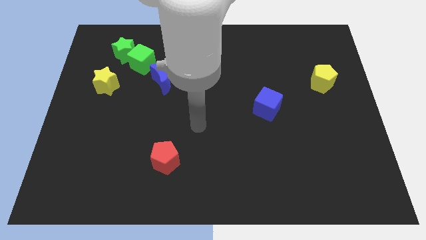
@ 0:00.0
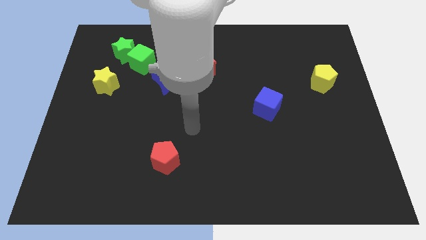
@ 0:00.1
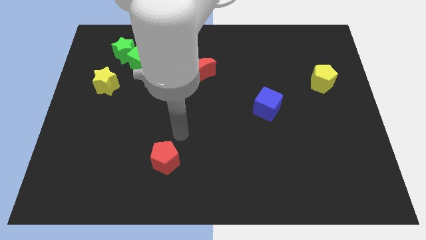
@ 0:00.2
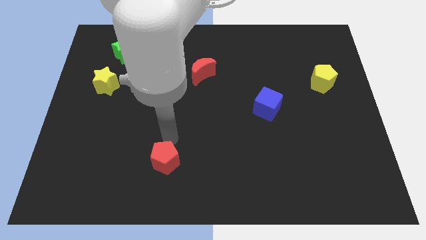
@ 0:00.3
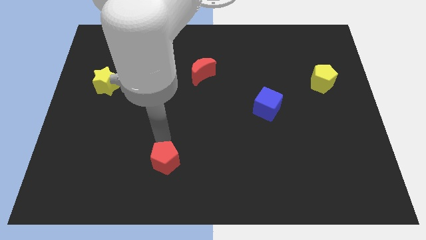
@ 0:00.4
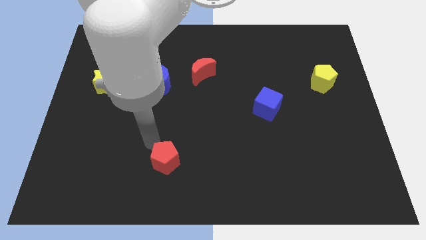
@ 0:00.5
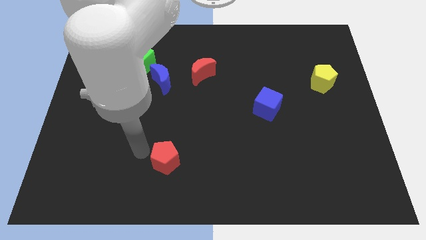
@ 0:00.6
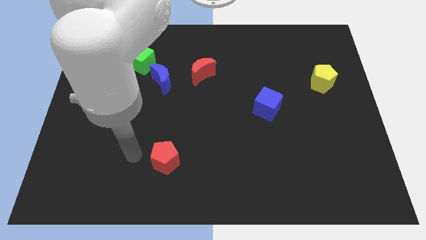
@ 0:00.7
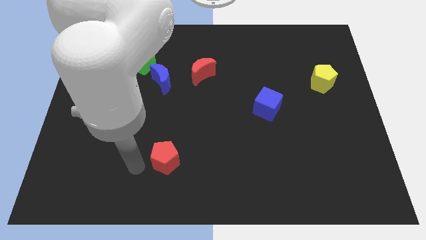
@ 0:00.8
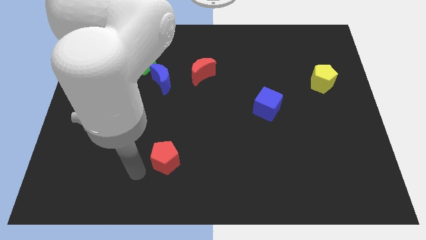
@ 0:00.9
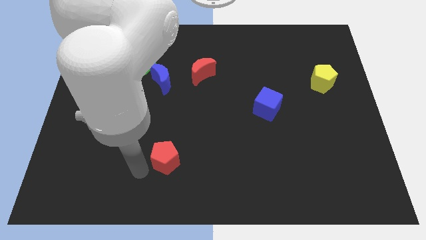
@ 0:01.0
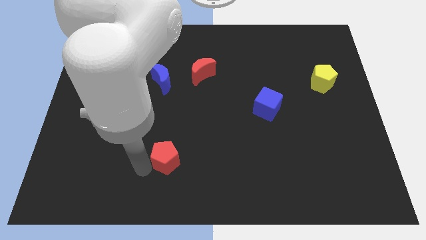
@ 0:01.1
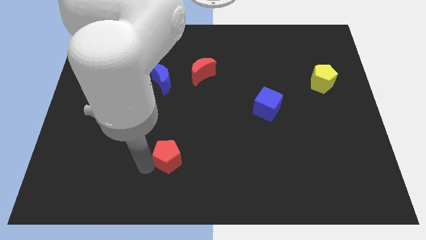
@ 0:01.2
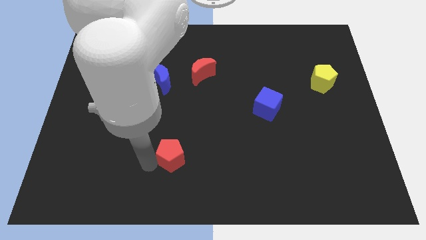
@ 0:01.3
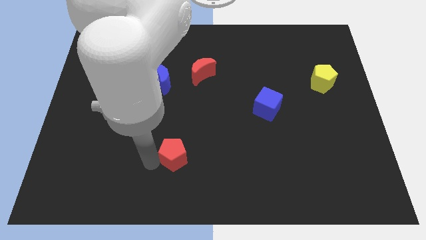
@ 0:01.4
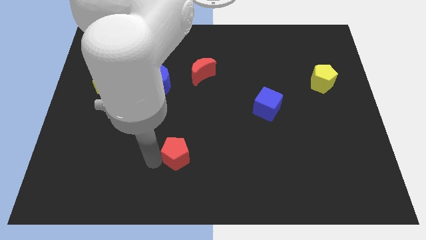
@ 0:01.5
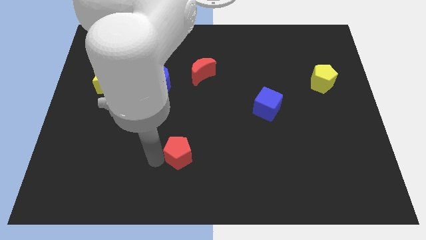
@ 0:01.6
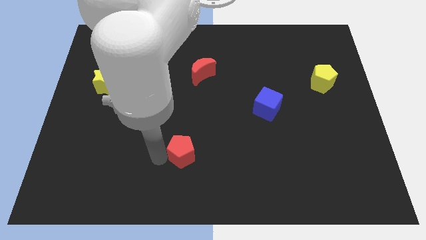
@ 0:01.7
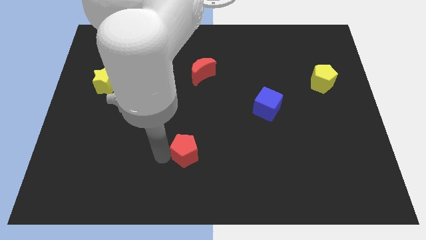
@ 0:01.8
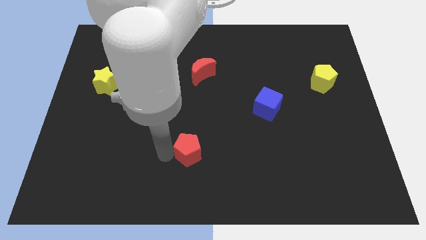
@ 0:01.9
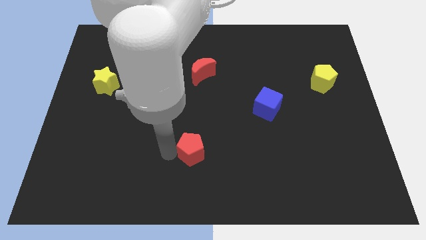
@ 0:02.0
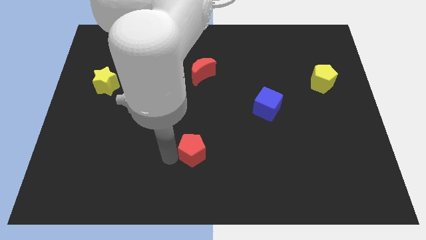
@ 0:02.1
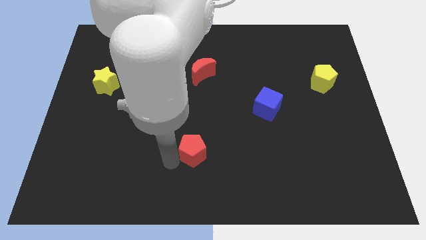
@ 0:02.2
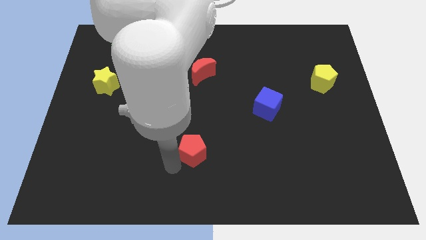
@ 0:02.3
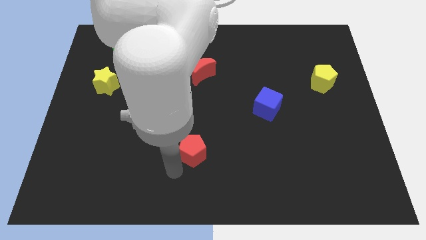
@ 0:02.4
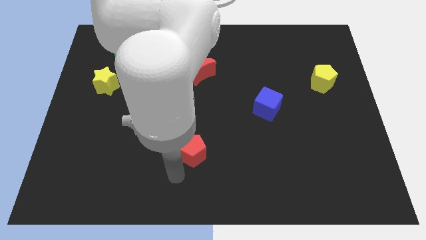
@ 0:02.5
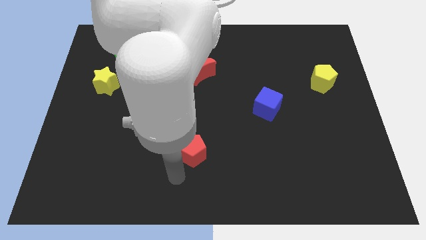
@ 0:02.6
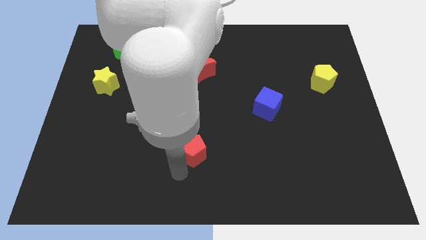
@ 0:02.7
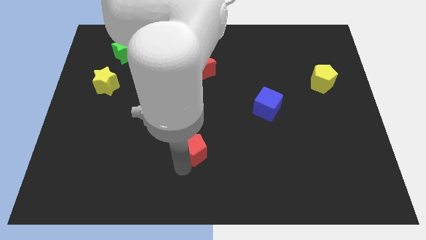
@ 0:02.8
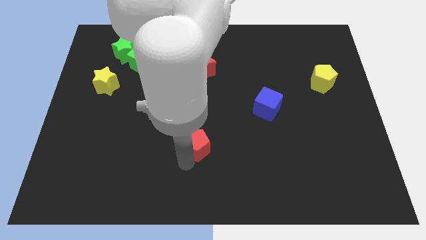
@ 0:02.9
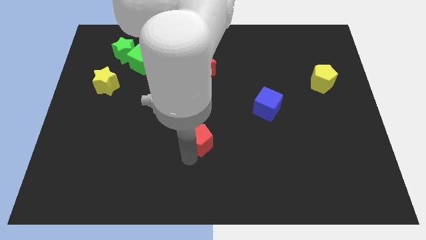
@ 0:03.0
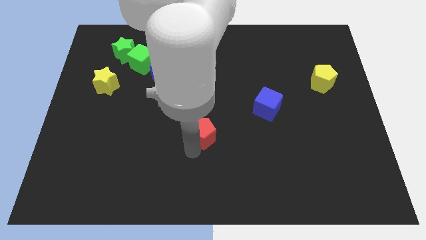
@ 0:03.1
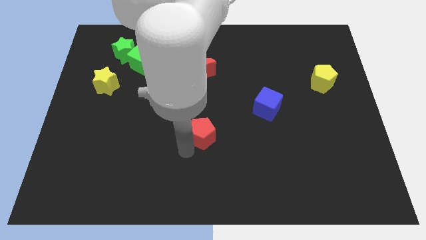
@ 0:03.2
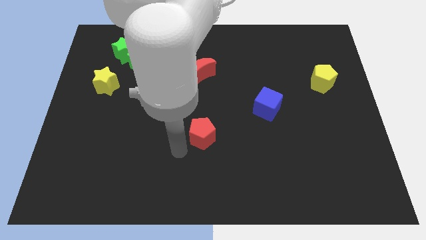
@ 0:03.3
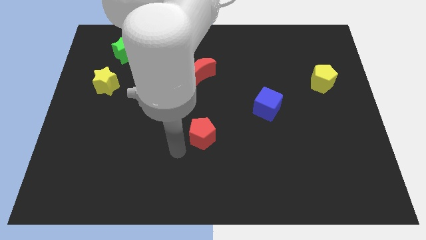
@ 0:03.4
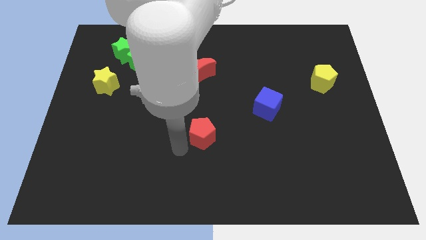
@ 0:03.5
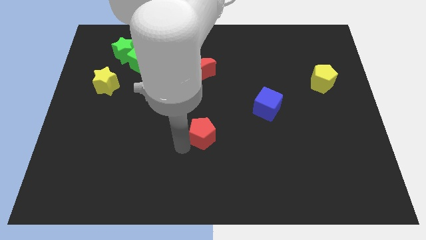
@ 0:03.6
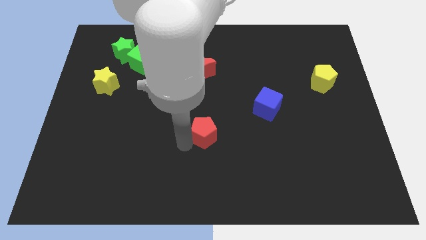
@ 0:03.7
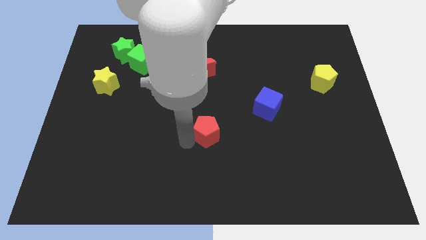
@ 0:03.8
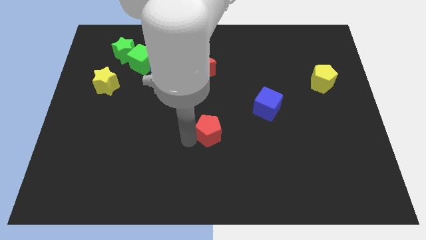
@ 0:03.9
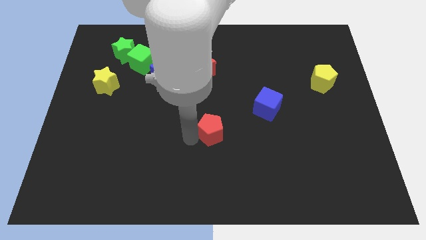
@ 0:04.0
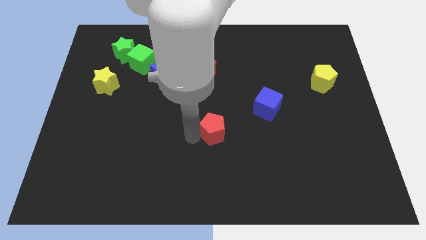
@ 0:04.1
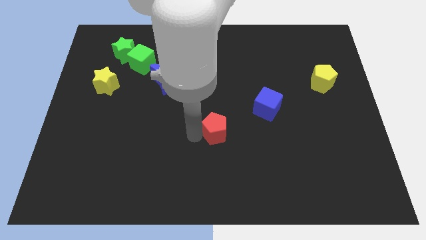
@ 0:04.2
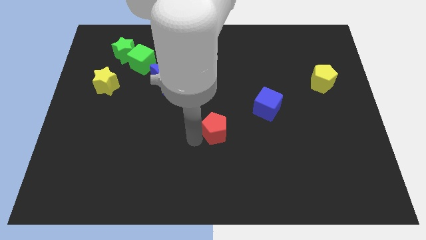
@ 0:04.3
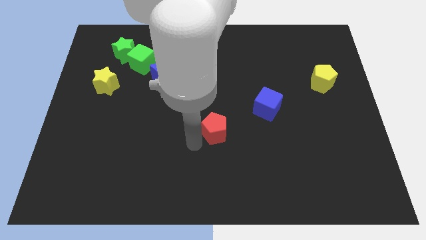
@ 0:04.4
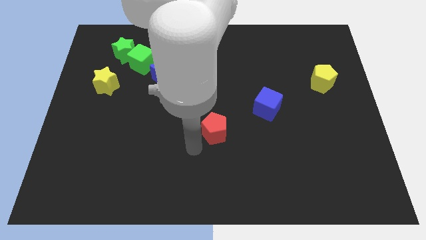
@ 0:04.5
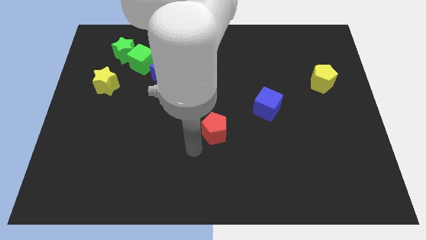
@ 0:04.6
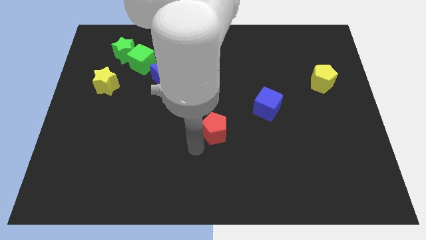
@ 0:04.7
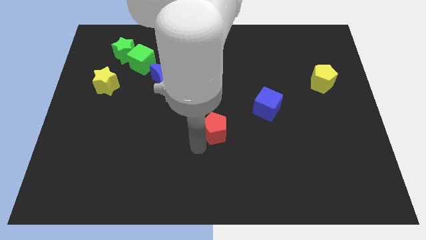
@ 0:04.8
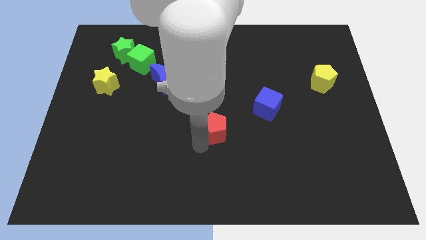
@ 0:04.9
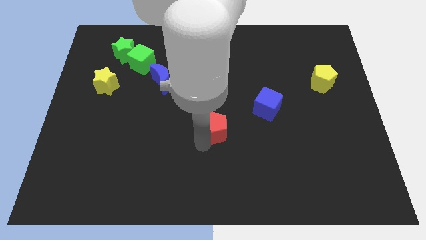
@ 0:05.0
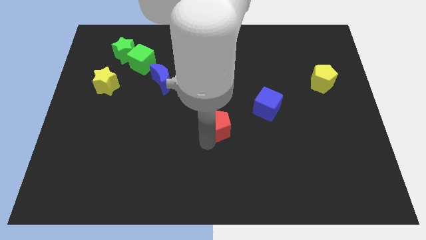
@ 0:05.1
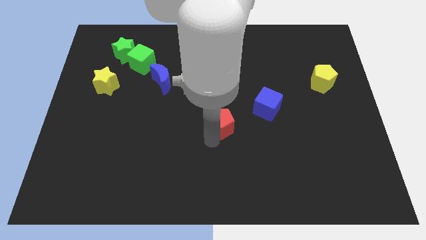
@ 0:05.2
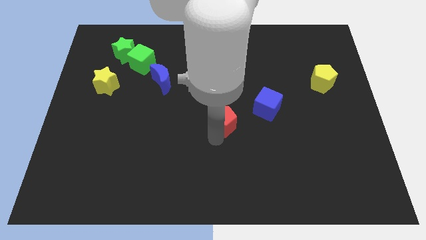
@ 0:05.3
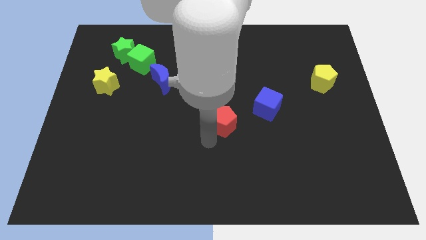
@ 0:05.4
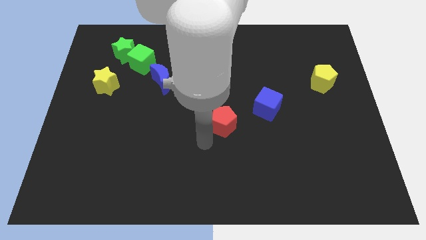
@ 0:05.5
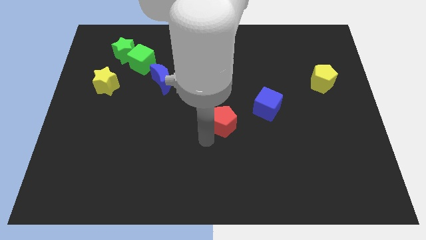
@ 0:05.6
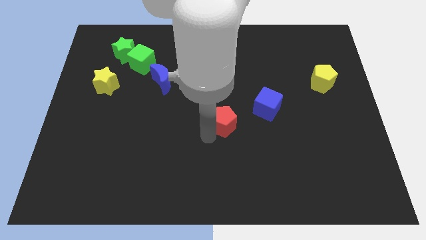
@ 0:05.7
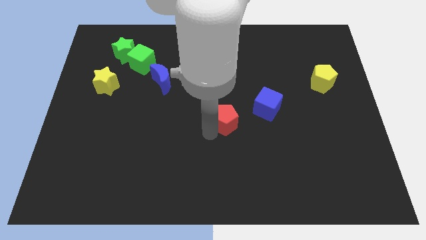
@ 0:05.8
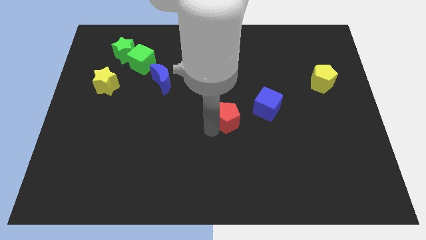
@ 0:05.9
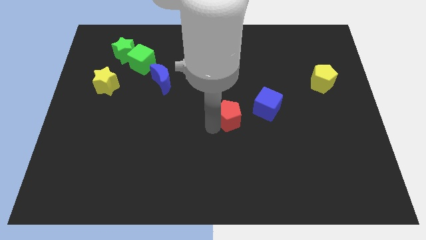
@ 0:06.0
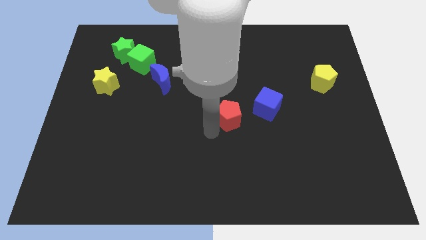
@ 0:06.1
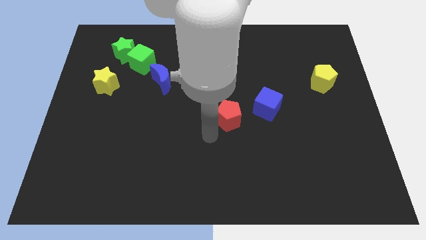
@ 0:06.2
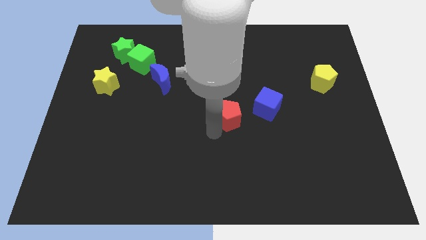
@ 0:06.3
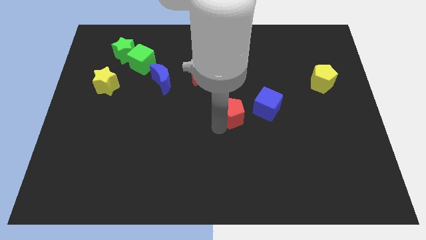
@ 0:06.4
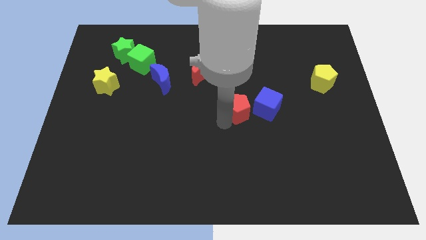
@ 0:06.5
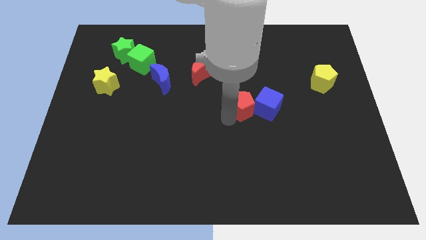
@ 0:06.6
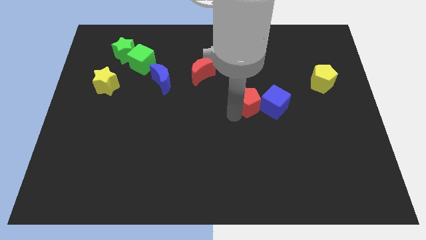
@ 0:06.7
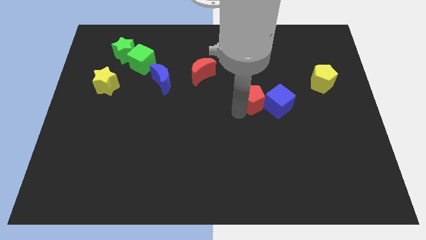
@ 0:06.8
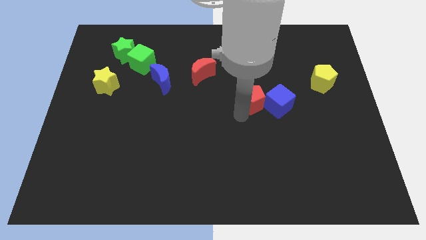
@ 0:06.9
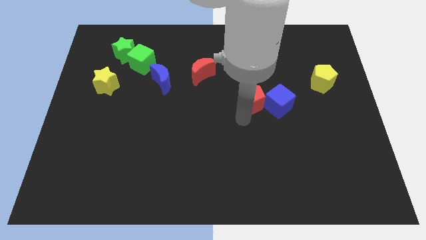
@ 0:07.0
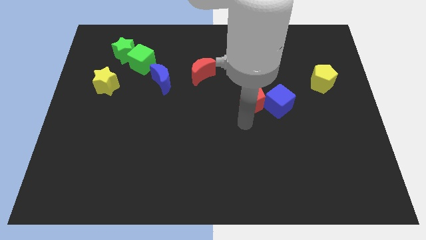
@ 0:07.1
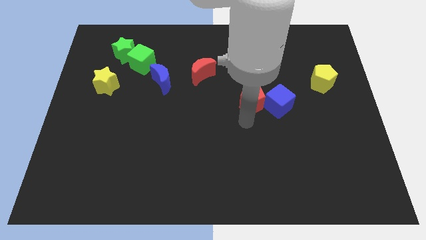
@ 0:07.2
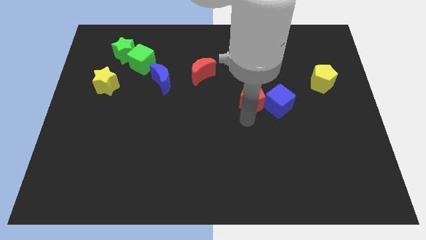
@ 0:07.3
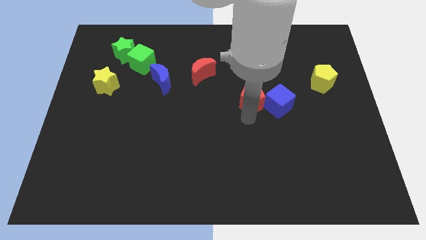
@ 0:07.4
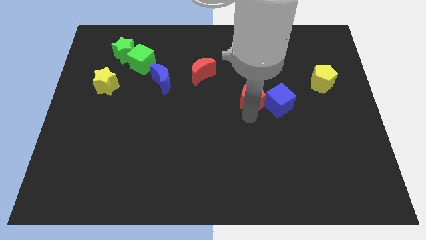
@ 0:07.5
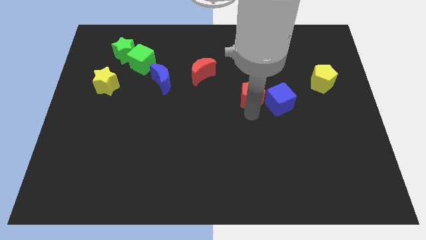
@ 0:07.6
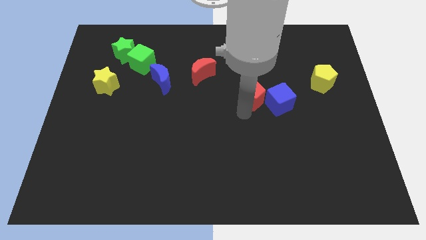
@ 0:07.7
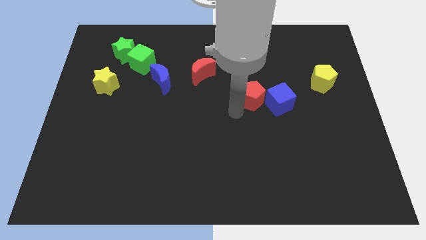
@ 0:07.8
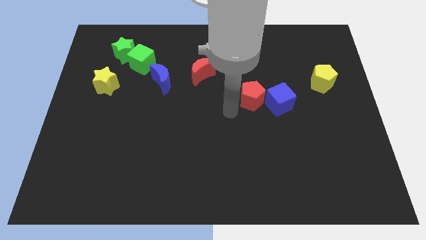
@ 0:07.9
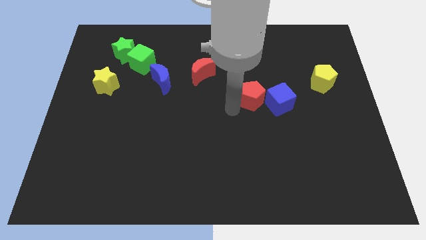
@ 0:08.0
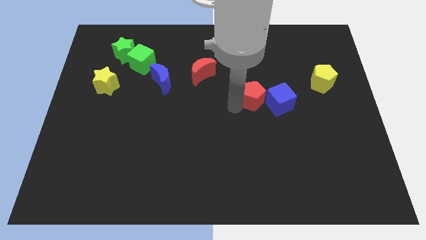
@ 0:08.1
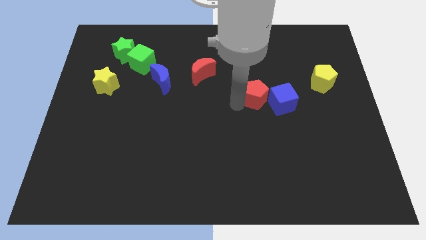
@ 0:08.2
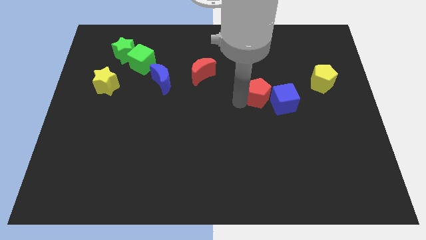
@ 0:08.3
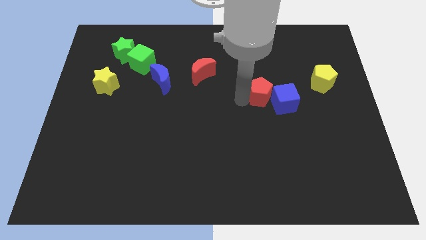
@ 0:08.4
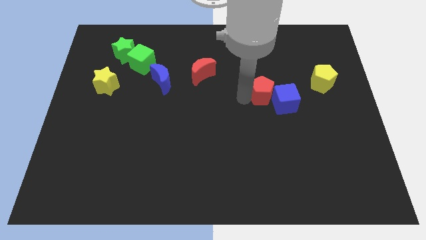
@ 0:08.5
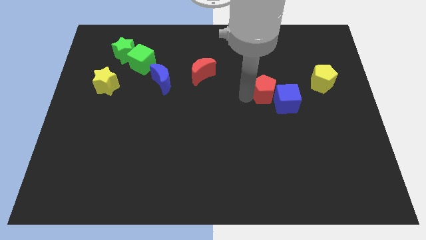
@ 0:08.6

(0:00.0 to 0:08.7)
put the red pentagon to the left of the yellow pentagon
